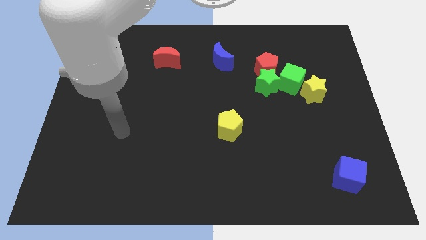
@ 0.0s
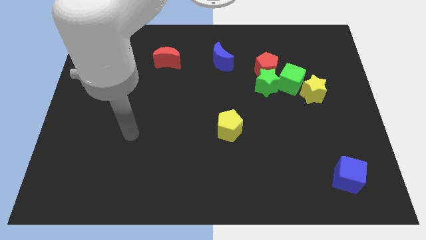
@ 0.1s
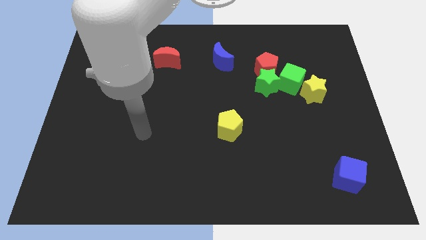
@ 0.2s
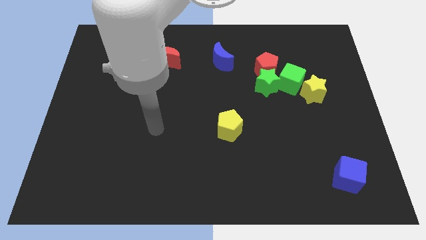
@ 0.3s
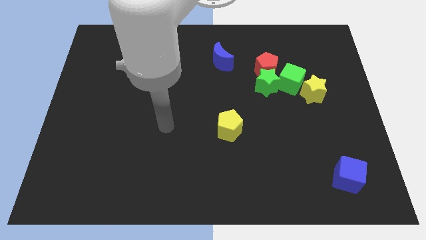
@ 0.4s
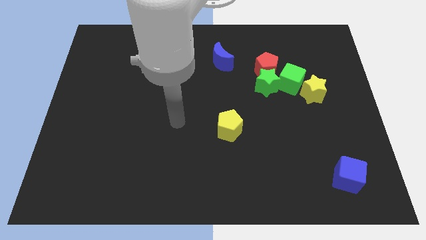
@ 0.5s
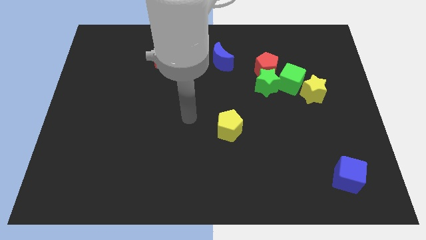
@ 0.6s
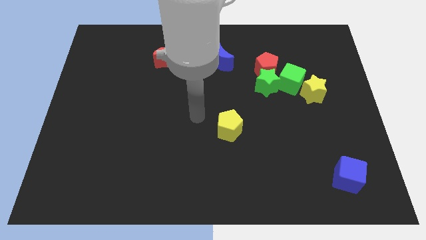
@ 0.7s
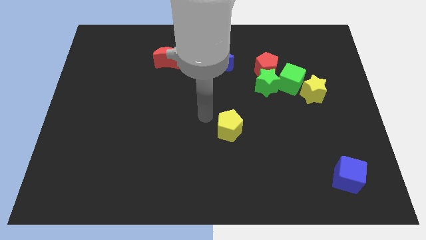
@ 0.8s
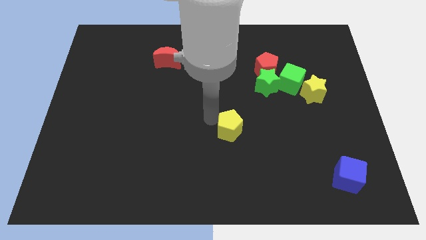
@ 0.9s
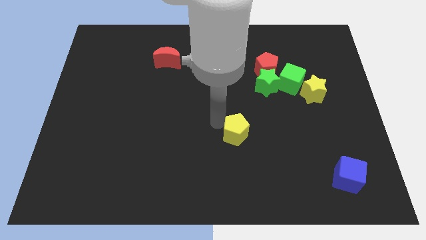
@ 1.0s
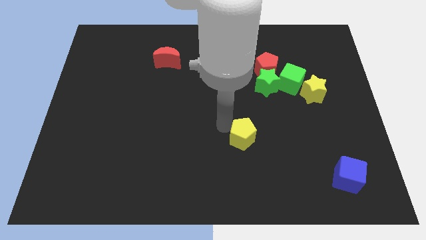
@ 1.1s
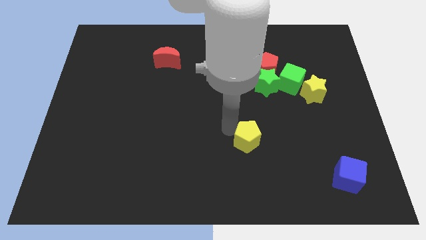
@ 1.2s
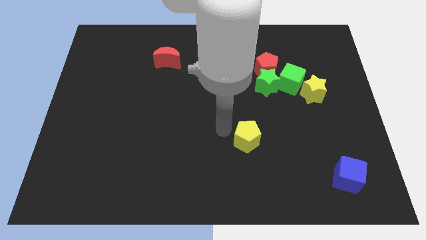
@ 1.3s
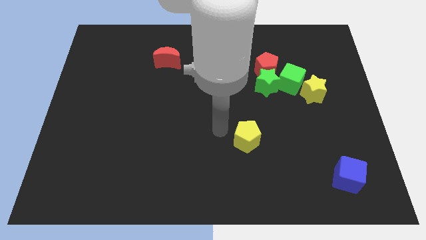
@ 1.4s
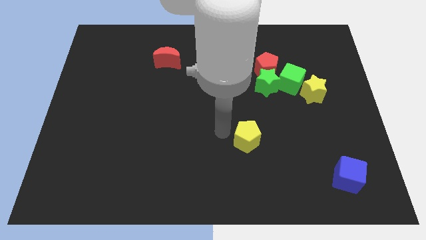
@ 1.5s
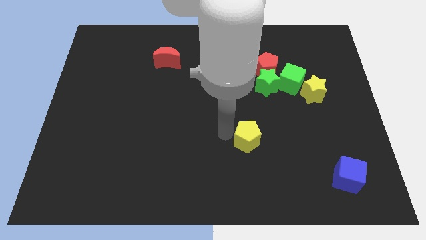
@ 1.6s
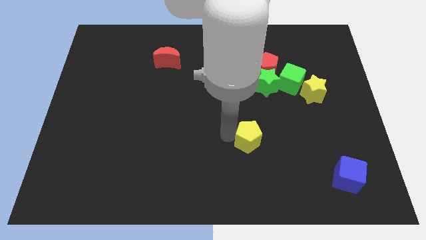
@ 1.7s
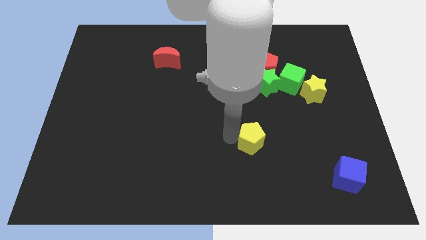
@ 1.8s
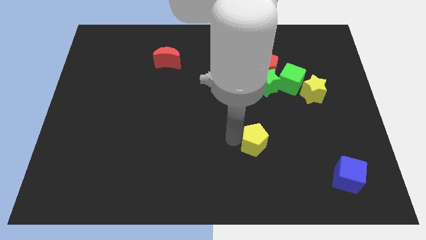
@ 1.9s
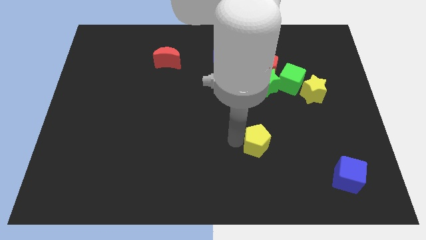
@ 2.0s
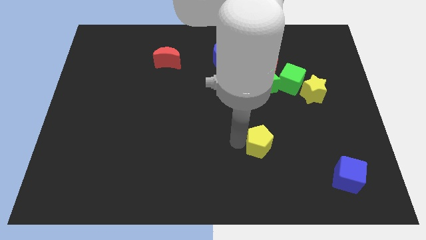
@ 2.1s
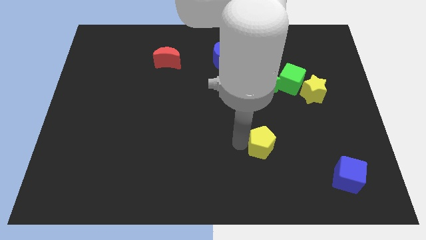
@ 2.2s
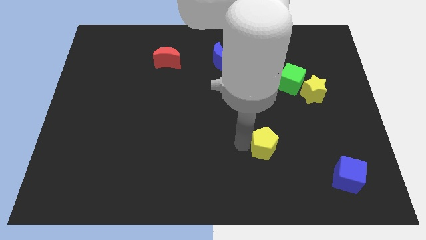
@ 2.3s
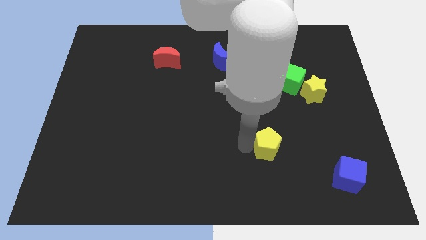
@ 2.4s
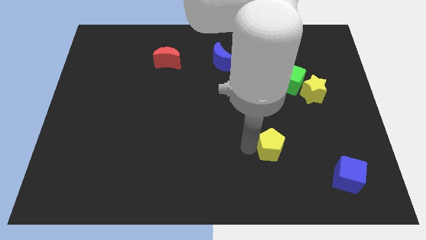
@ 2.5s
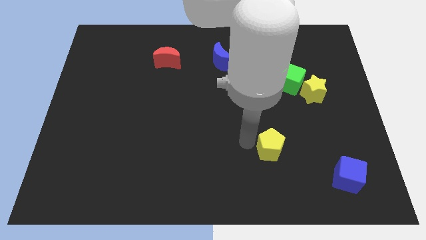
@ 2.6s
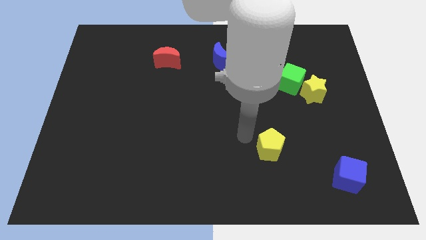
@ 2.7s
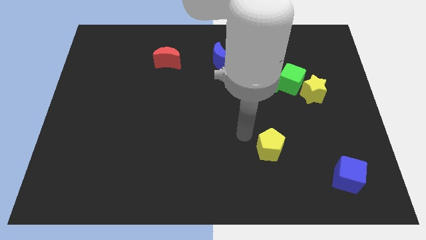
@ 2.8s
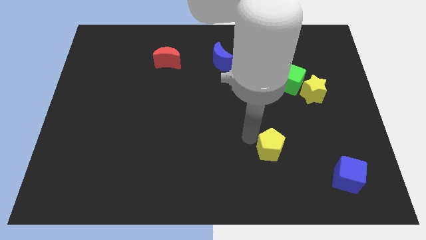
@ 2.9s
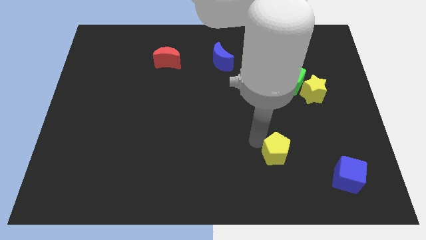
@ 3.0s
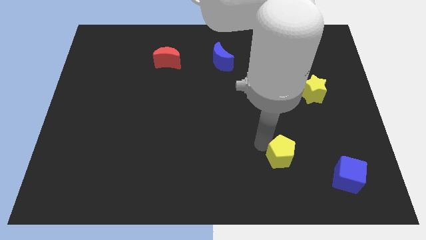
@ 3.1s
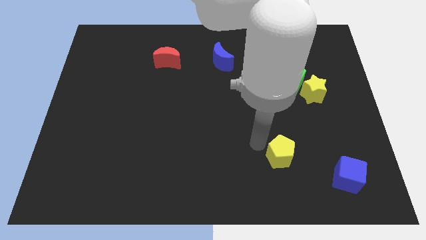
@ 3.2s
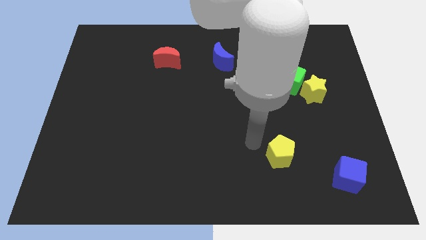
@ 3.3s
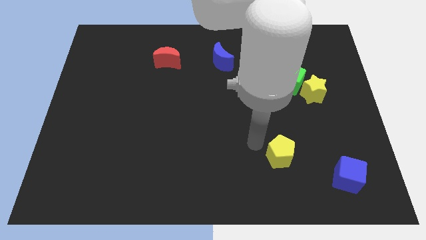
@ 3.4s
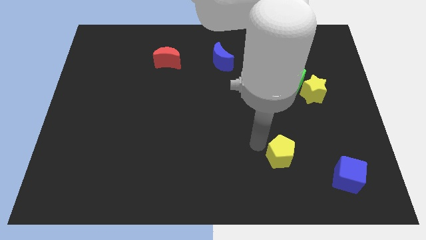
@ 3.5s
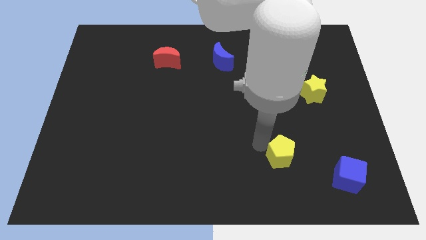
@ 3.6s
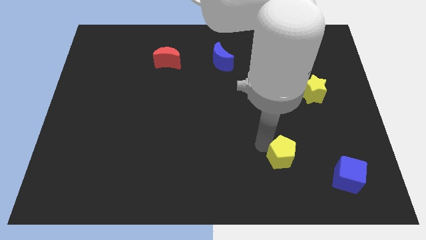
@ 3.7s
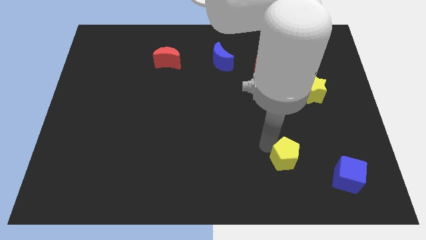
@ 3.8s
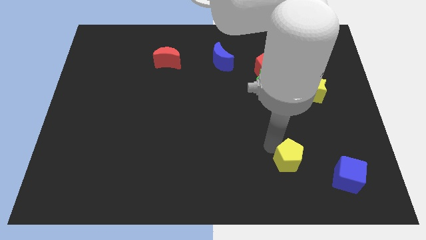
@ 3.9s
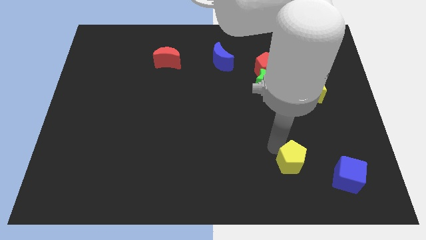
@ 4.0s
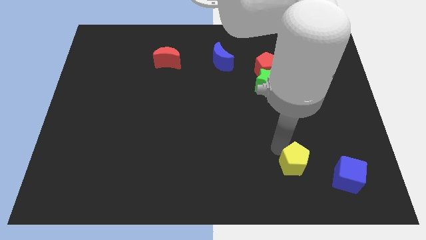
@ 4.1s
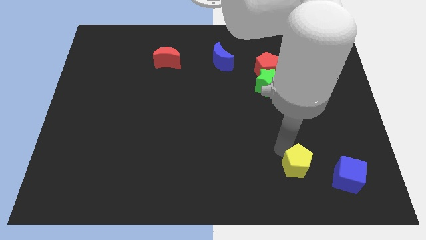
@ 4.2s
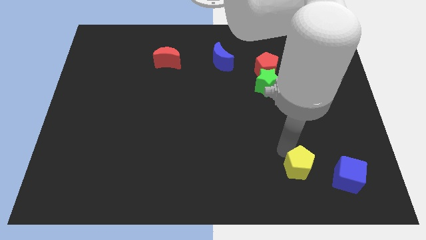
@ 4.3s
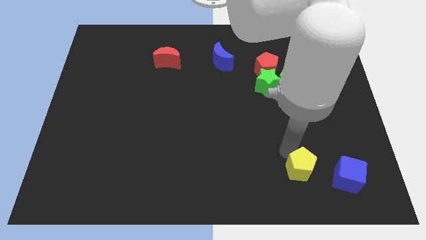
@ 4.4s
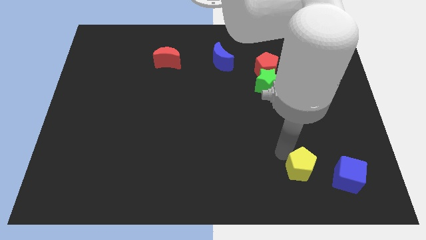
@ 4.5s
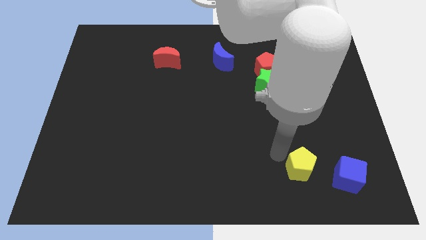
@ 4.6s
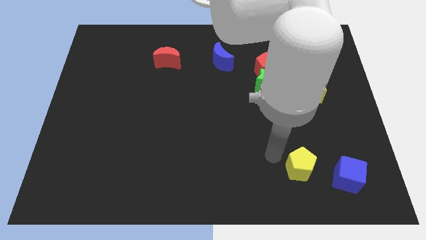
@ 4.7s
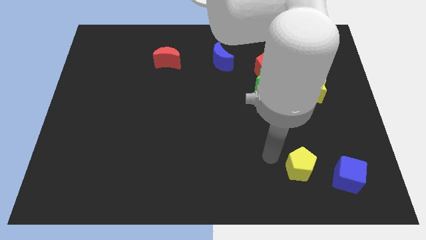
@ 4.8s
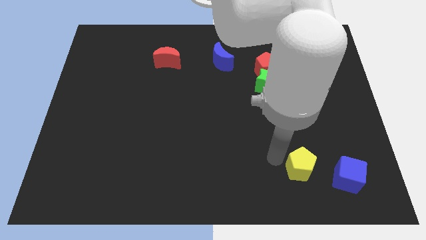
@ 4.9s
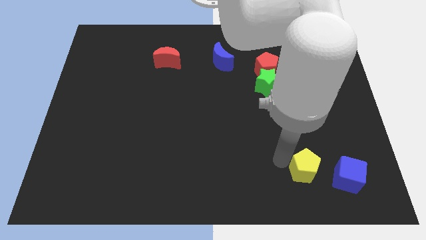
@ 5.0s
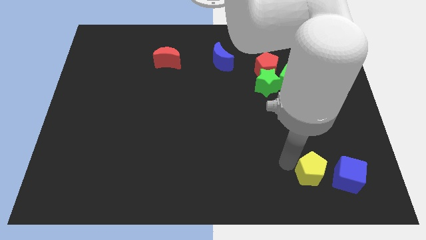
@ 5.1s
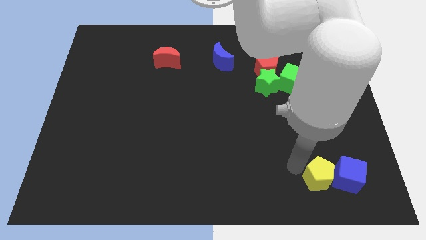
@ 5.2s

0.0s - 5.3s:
push the yellow pentagon next to the blue cube

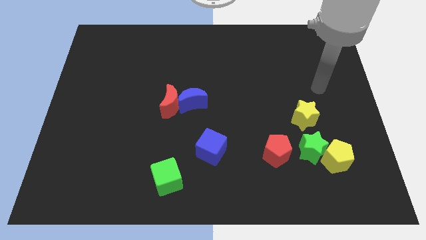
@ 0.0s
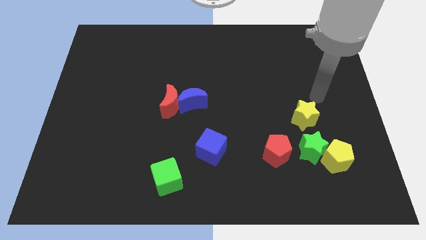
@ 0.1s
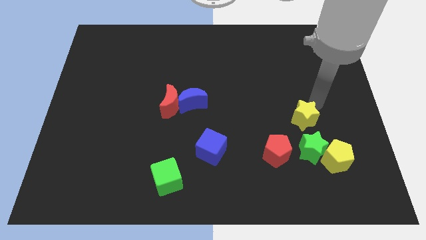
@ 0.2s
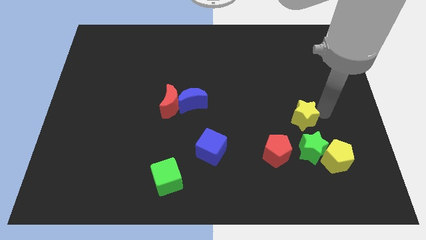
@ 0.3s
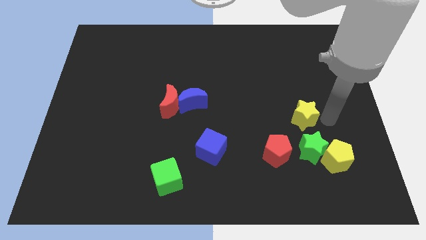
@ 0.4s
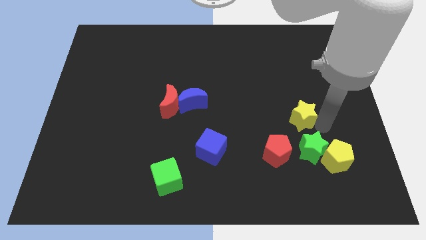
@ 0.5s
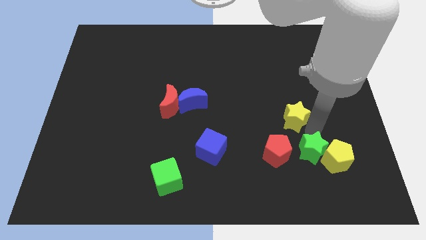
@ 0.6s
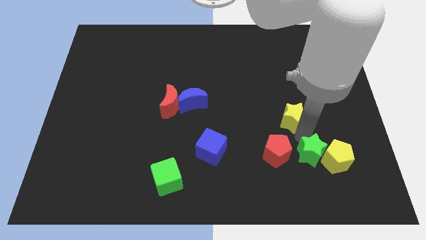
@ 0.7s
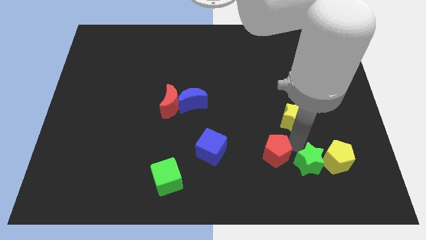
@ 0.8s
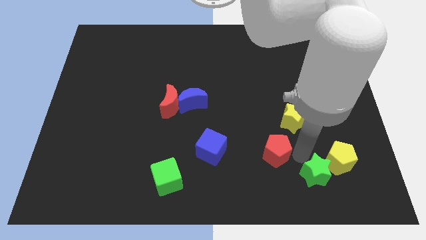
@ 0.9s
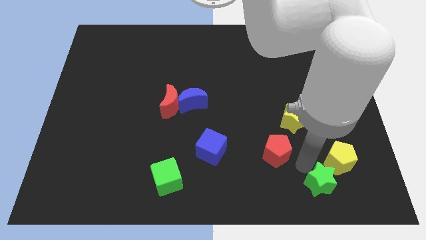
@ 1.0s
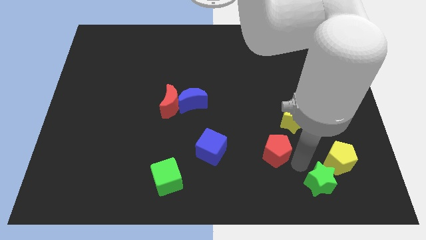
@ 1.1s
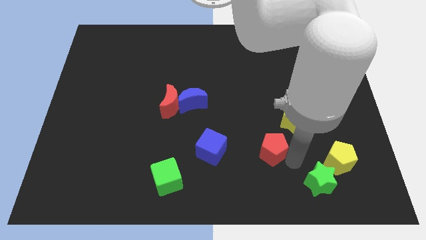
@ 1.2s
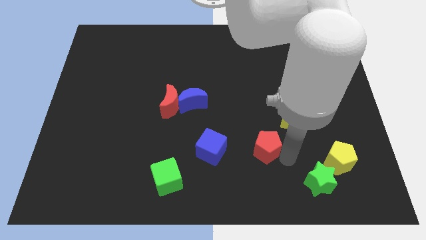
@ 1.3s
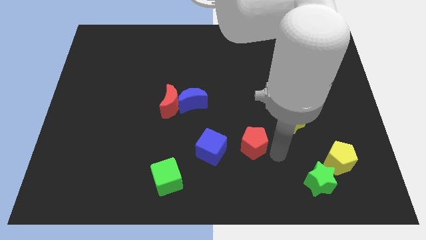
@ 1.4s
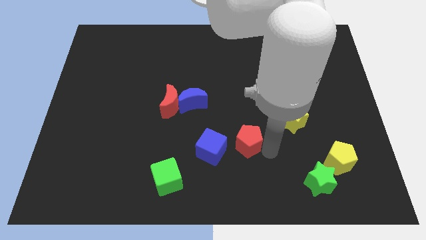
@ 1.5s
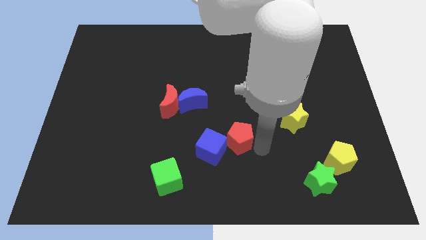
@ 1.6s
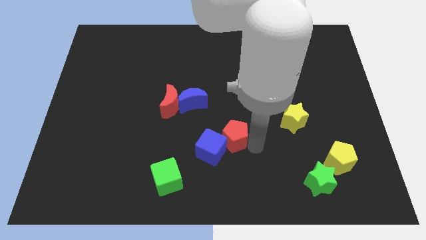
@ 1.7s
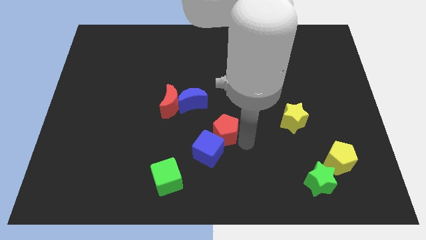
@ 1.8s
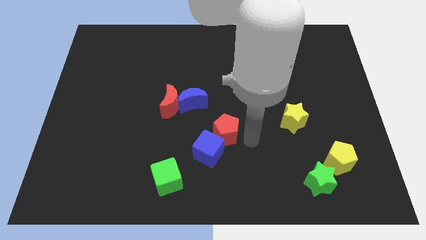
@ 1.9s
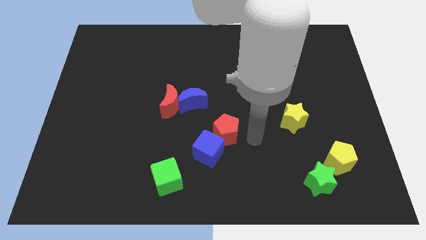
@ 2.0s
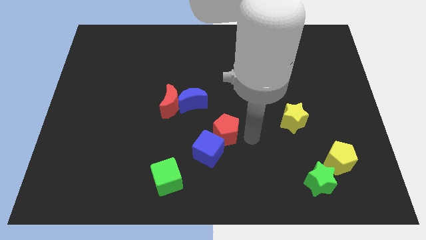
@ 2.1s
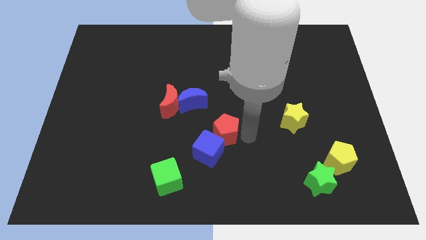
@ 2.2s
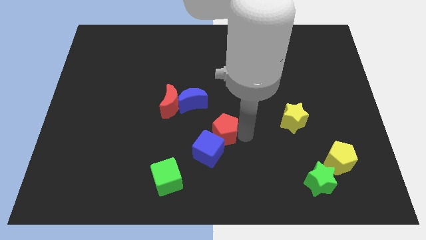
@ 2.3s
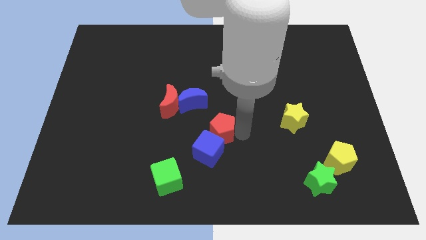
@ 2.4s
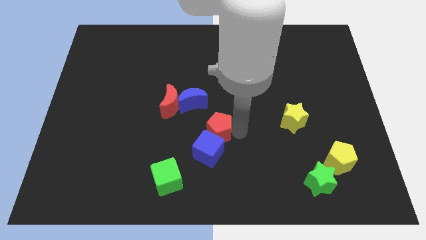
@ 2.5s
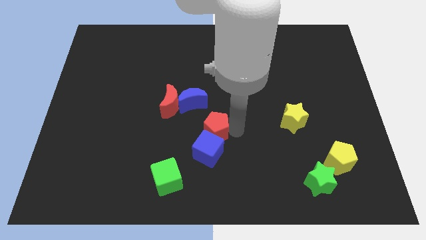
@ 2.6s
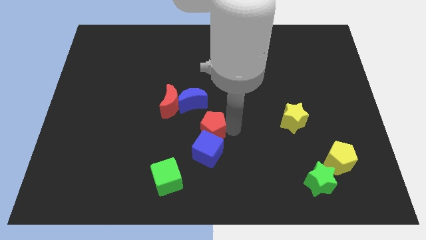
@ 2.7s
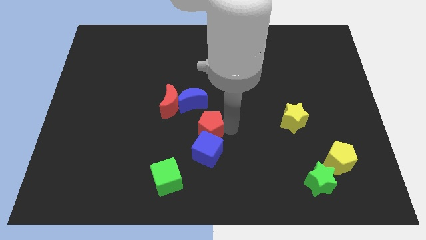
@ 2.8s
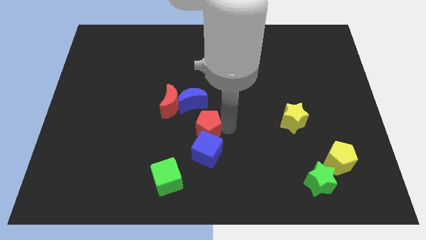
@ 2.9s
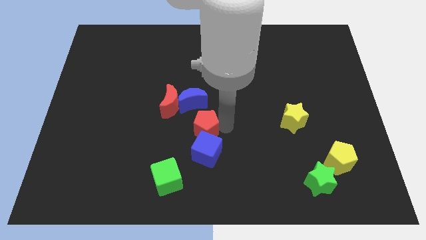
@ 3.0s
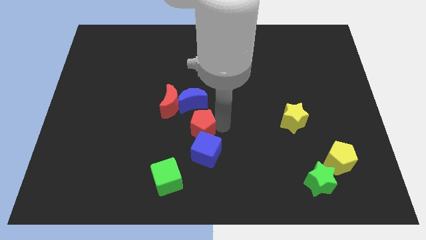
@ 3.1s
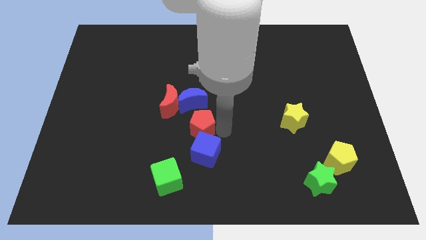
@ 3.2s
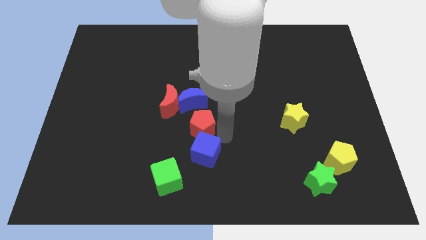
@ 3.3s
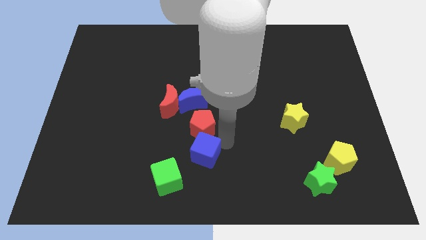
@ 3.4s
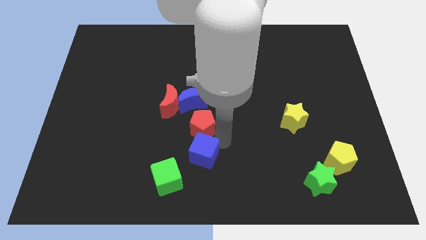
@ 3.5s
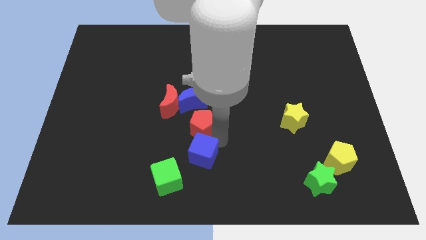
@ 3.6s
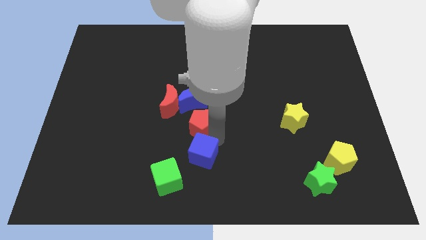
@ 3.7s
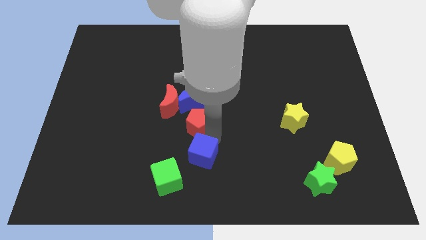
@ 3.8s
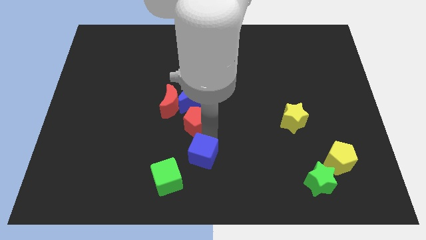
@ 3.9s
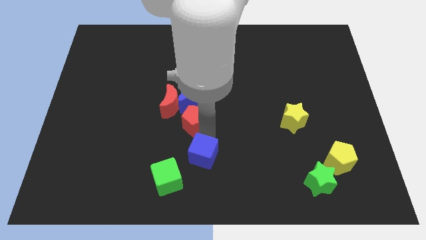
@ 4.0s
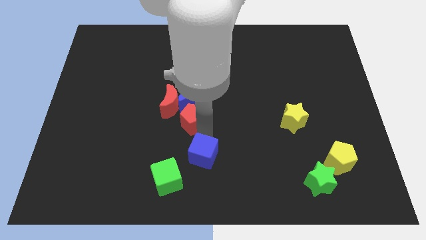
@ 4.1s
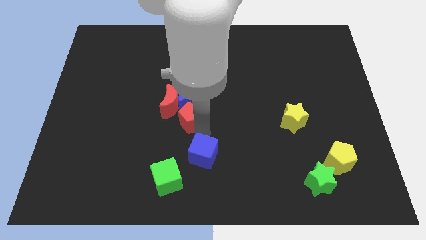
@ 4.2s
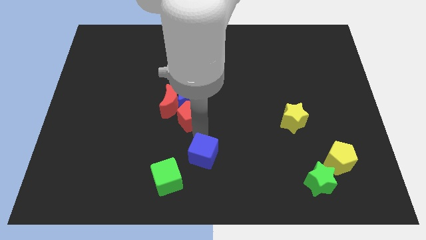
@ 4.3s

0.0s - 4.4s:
slide the red pentagon towards the red moon
